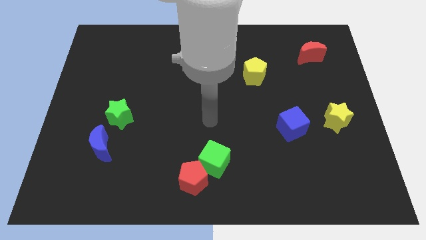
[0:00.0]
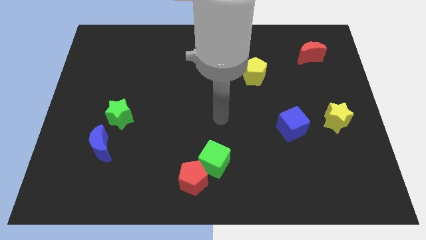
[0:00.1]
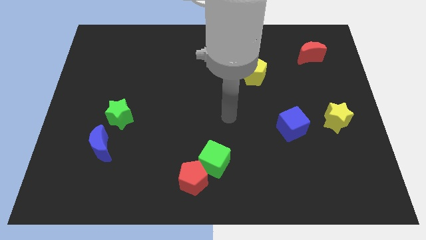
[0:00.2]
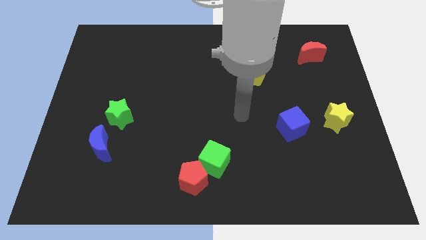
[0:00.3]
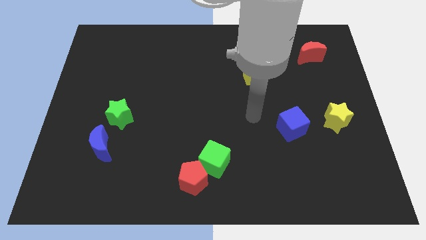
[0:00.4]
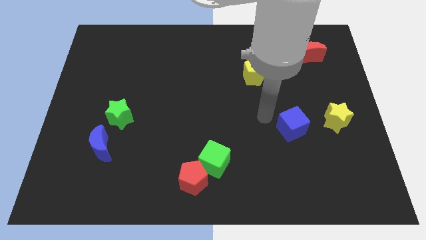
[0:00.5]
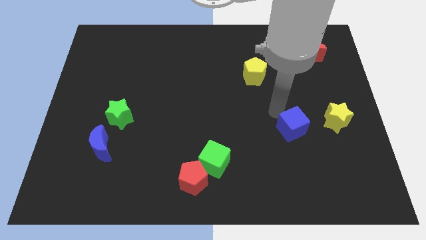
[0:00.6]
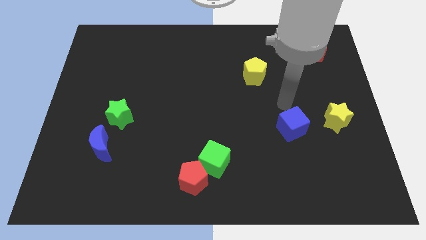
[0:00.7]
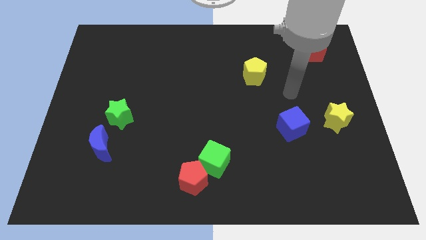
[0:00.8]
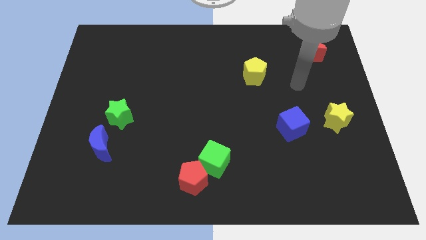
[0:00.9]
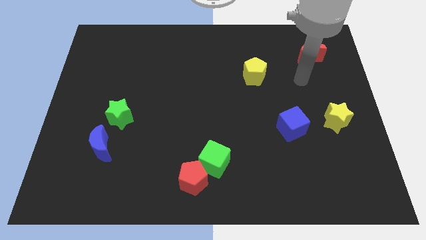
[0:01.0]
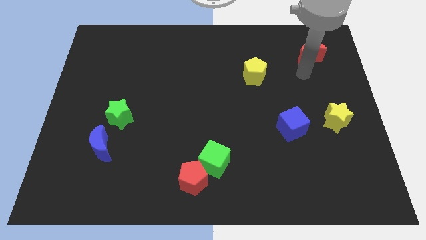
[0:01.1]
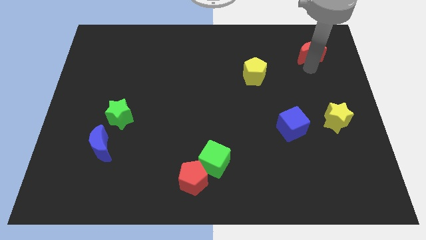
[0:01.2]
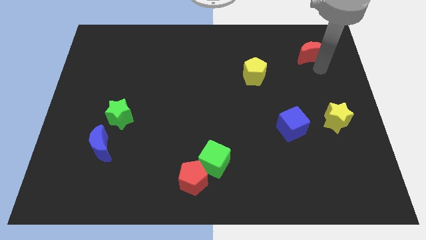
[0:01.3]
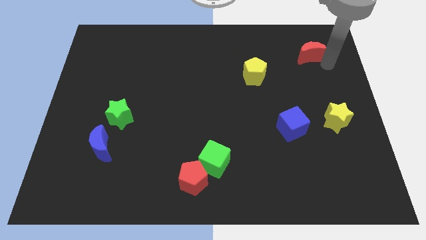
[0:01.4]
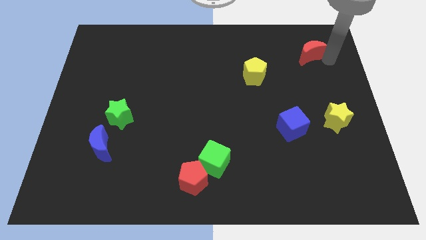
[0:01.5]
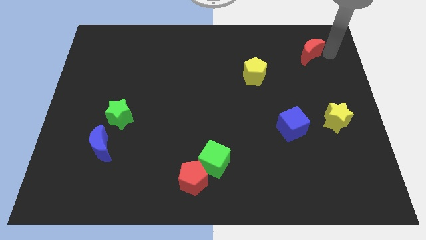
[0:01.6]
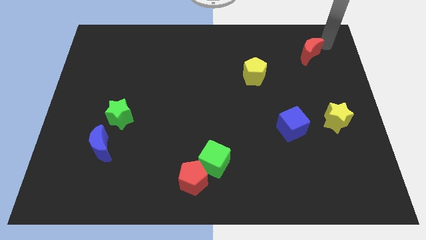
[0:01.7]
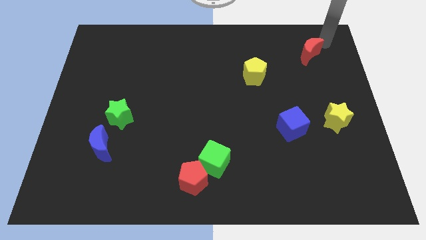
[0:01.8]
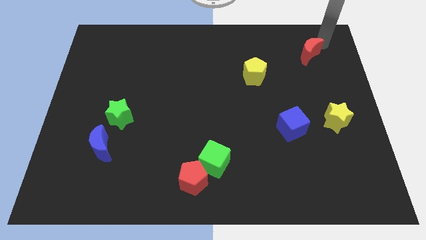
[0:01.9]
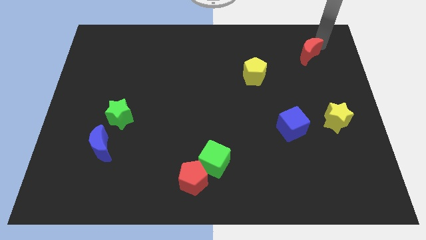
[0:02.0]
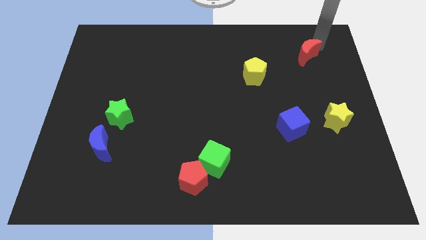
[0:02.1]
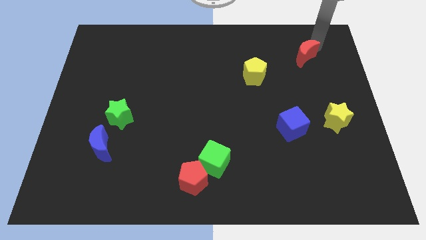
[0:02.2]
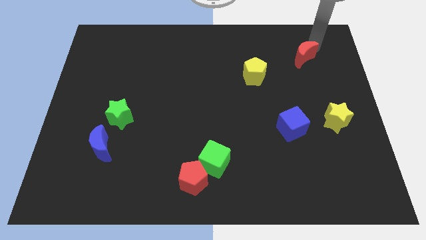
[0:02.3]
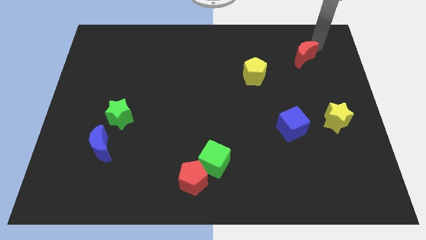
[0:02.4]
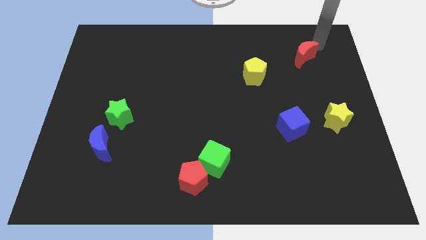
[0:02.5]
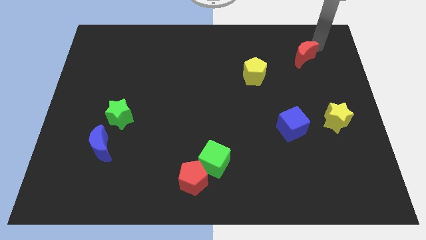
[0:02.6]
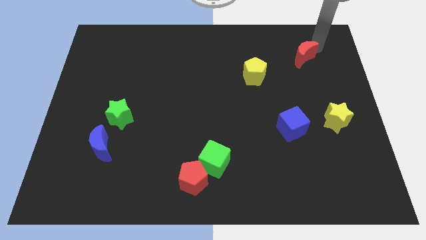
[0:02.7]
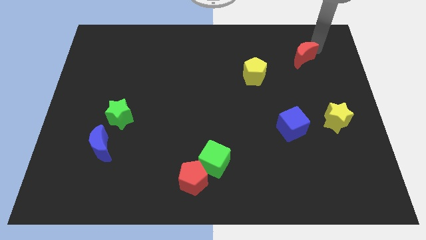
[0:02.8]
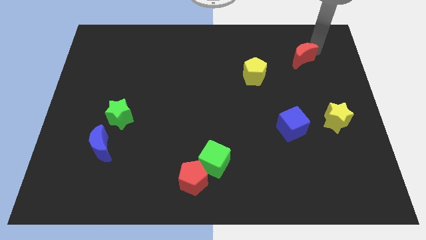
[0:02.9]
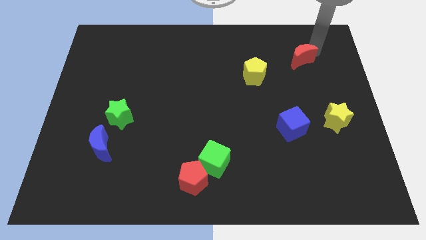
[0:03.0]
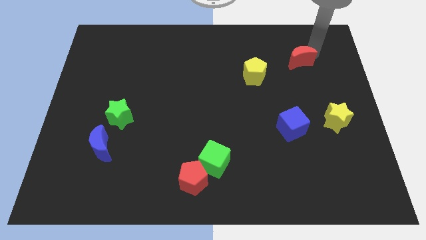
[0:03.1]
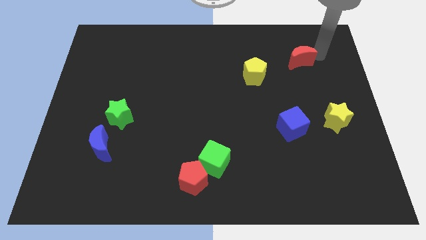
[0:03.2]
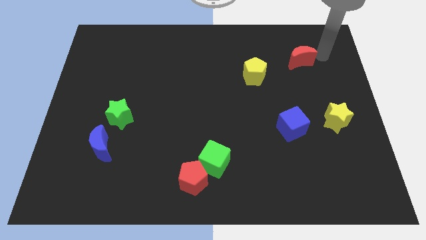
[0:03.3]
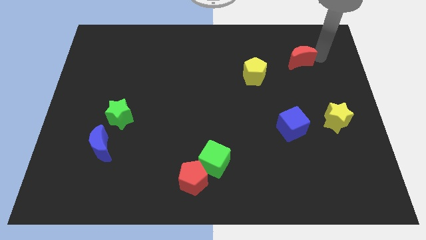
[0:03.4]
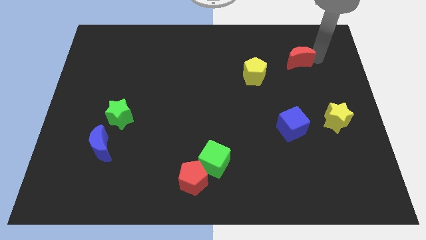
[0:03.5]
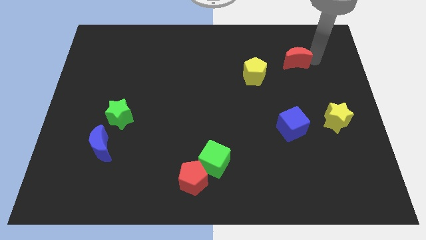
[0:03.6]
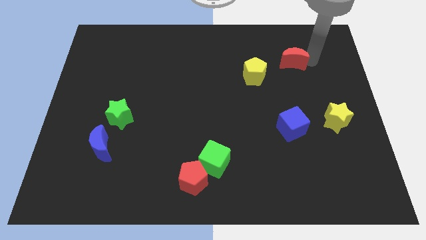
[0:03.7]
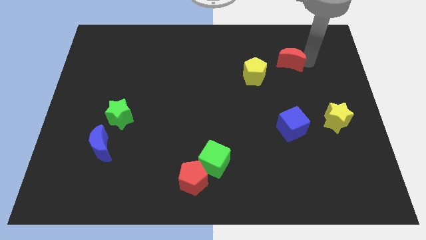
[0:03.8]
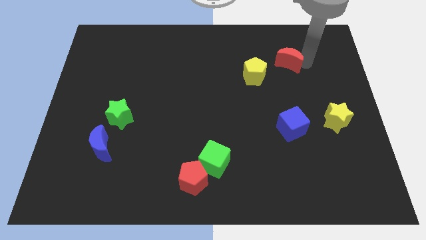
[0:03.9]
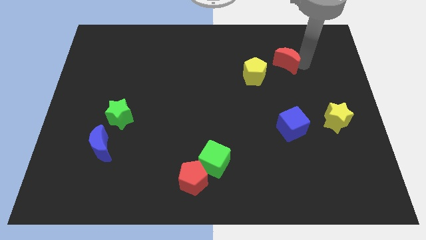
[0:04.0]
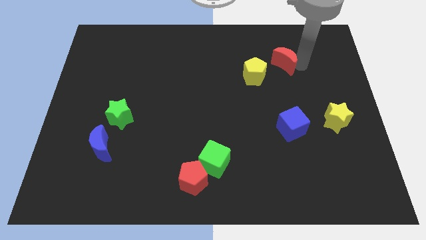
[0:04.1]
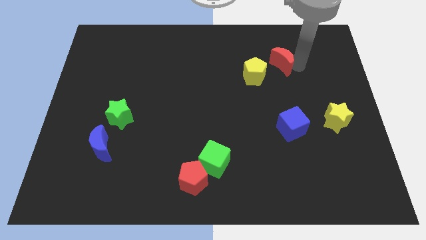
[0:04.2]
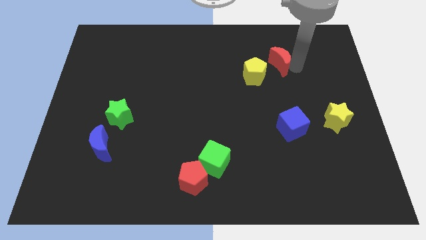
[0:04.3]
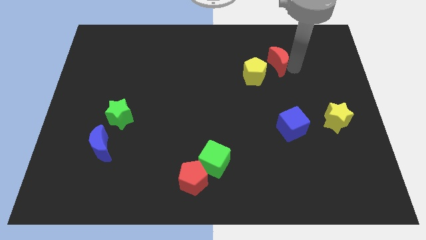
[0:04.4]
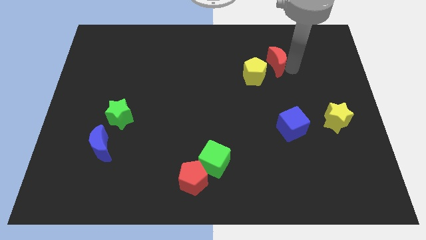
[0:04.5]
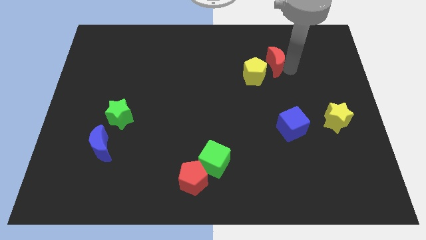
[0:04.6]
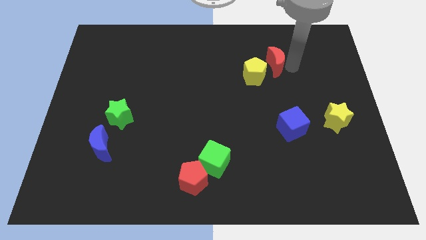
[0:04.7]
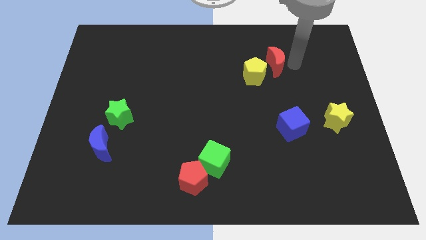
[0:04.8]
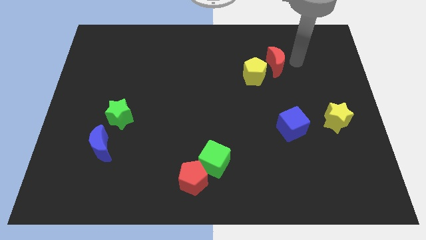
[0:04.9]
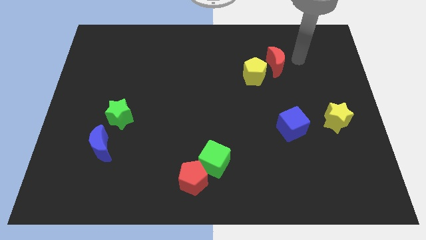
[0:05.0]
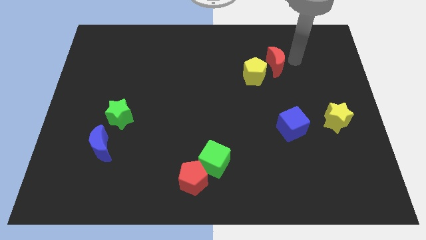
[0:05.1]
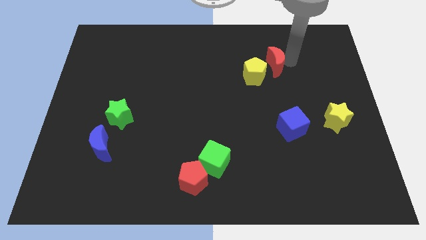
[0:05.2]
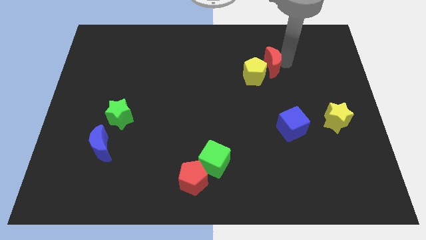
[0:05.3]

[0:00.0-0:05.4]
slide the red moon next to the yellow pentagon

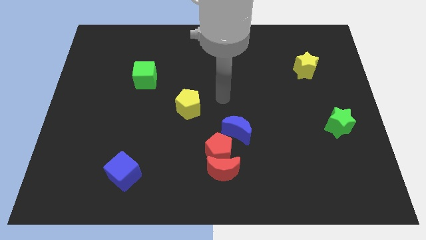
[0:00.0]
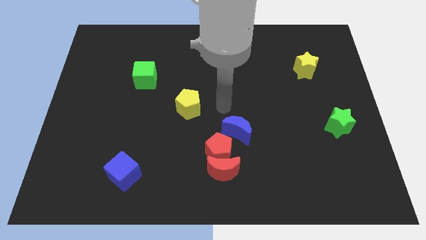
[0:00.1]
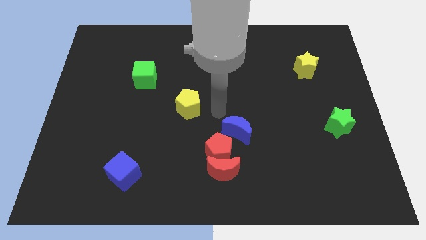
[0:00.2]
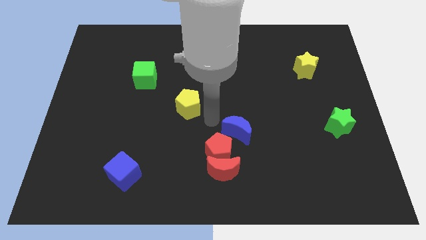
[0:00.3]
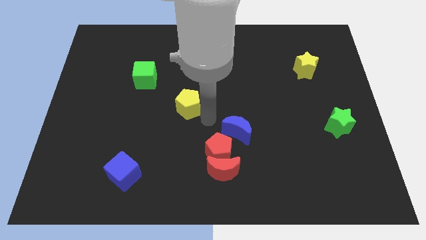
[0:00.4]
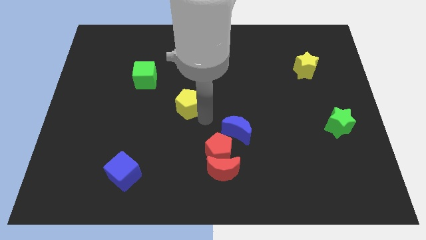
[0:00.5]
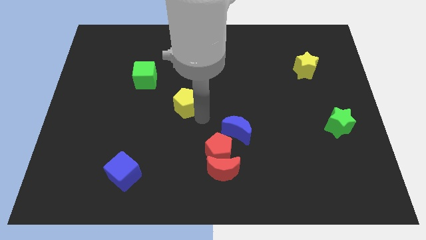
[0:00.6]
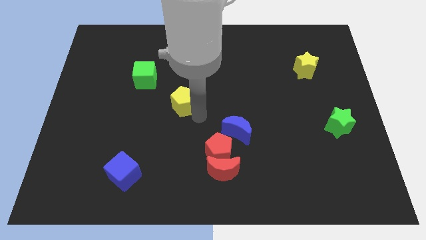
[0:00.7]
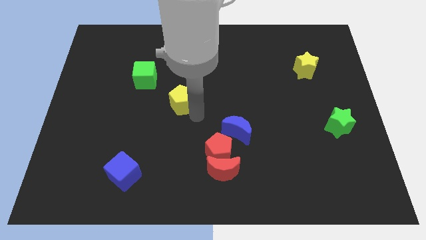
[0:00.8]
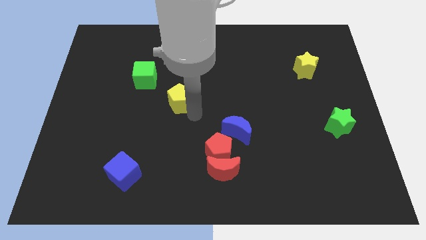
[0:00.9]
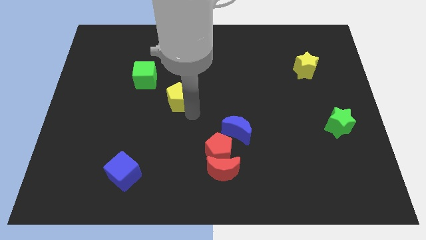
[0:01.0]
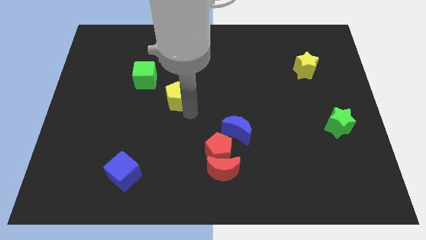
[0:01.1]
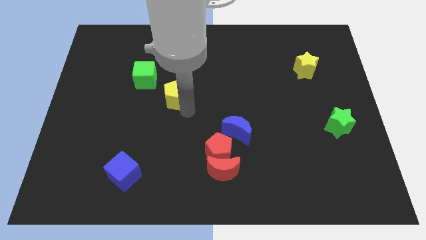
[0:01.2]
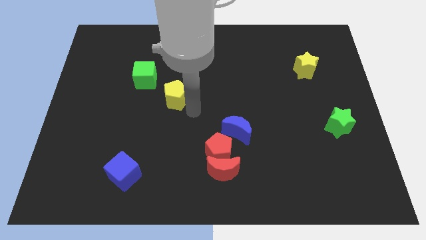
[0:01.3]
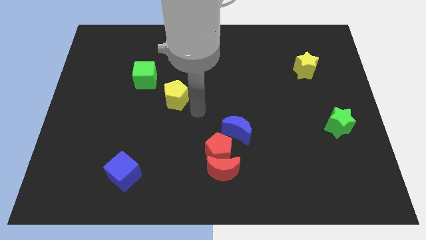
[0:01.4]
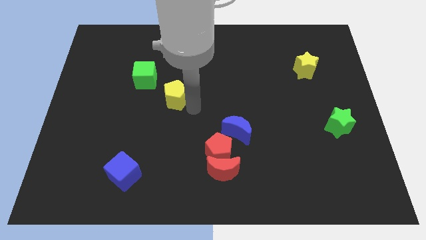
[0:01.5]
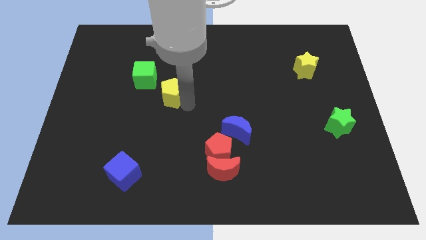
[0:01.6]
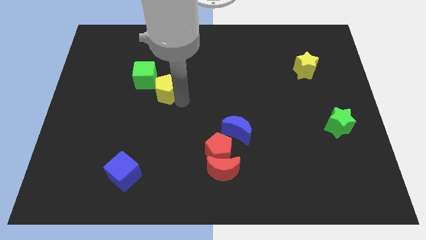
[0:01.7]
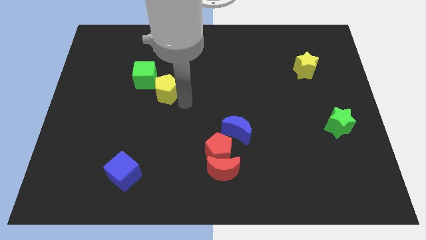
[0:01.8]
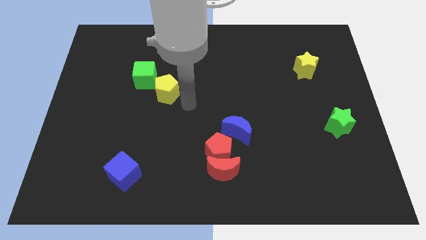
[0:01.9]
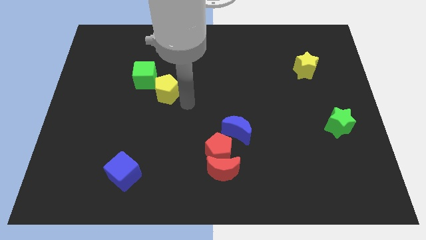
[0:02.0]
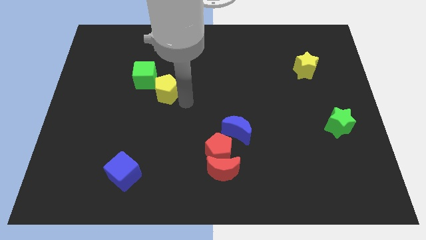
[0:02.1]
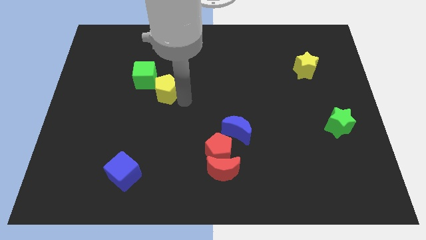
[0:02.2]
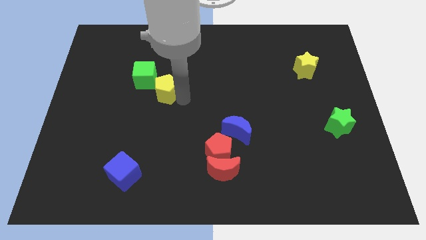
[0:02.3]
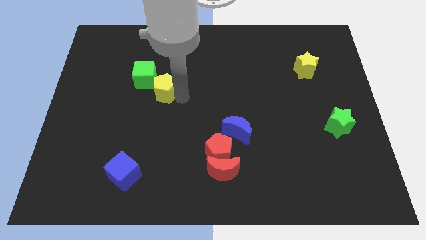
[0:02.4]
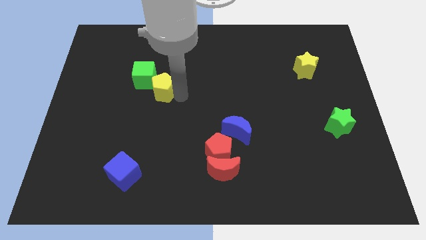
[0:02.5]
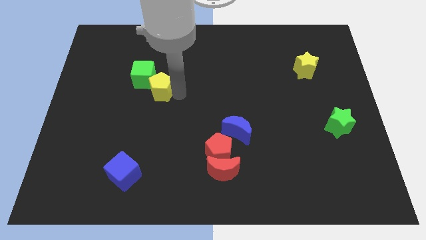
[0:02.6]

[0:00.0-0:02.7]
push the yellow pentagon to the green cube
